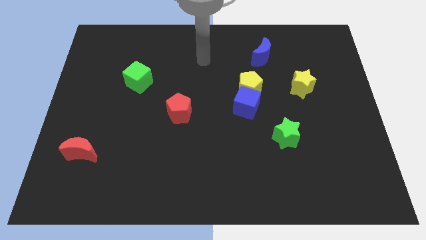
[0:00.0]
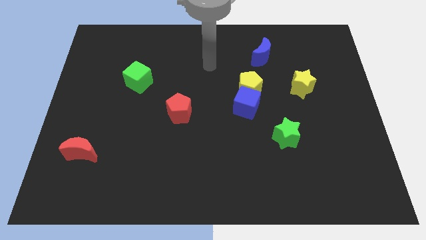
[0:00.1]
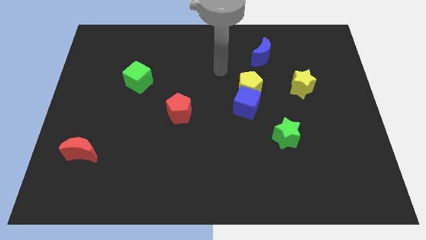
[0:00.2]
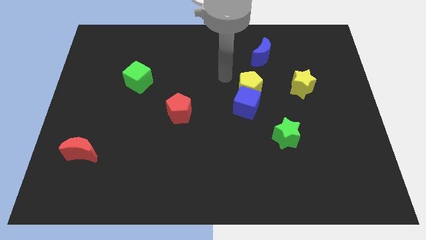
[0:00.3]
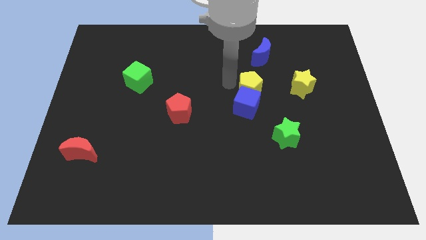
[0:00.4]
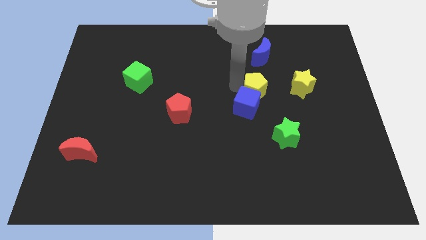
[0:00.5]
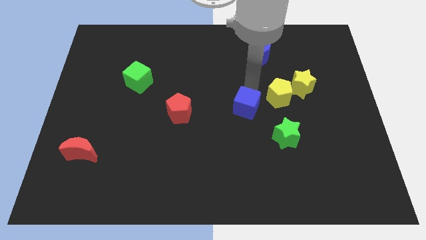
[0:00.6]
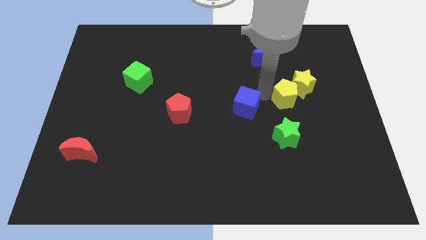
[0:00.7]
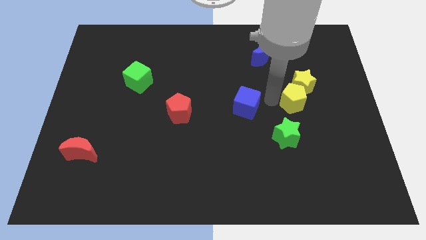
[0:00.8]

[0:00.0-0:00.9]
separate the blue cube from the yellow pentagon

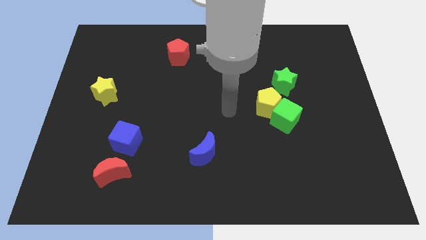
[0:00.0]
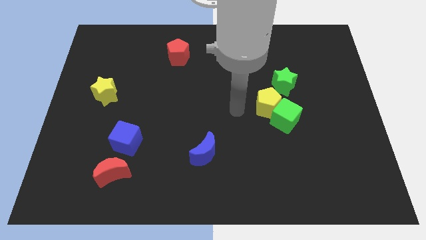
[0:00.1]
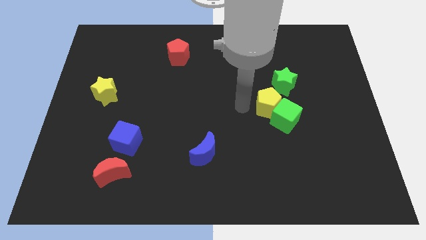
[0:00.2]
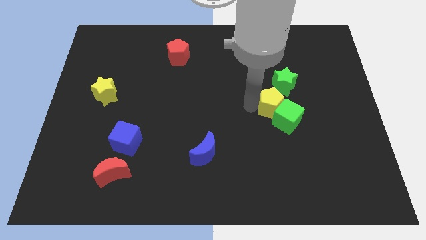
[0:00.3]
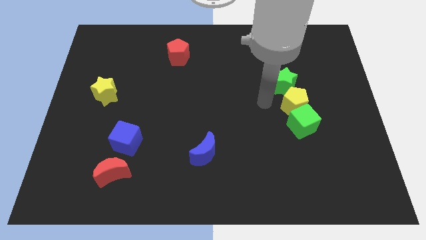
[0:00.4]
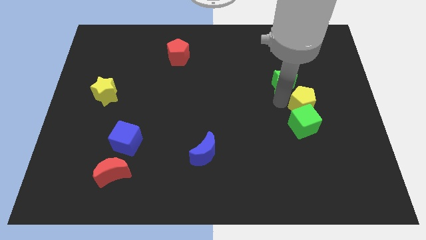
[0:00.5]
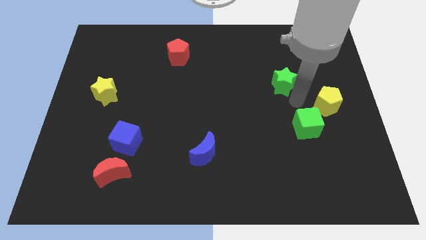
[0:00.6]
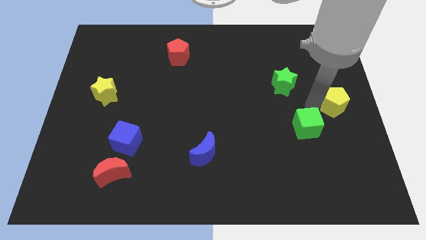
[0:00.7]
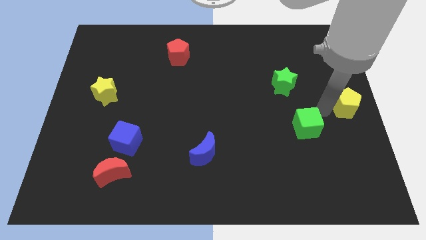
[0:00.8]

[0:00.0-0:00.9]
separate the green cube from the yellow pentagon

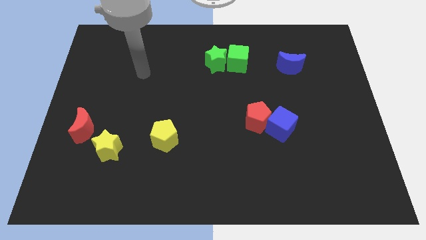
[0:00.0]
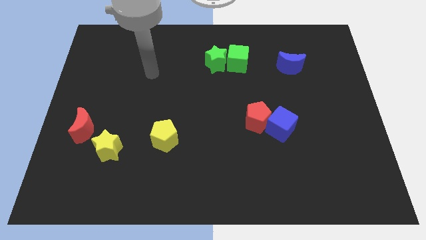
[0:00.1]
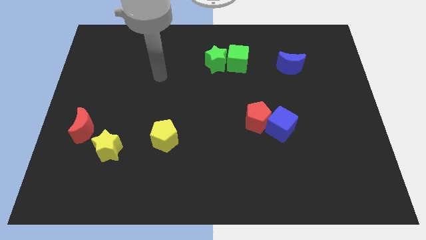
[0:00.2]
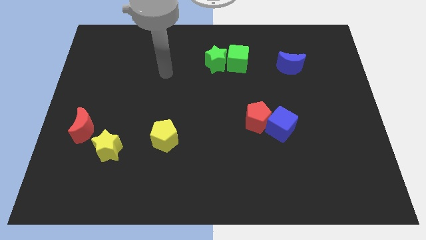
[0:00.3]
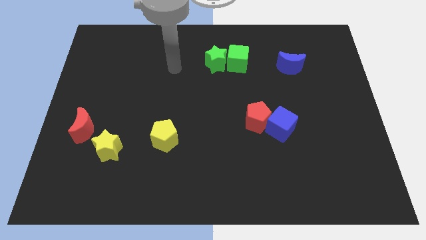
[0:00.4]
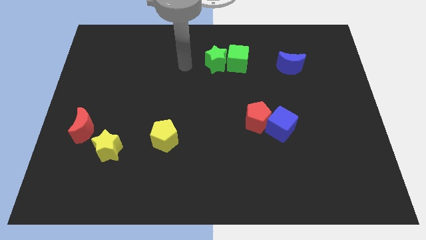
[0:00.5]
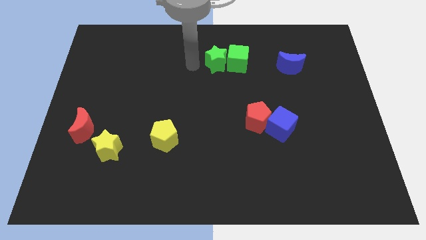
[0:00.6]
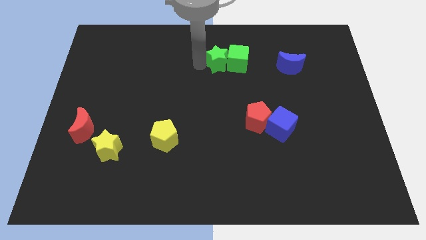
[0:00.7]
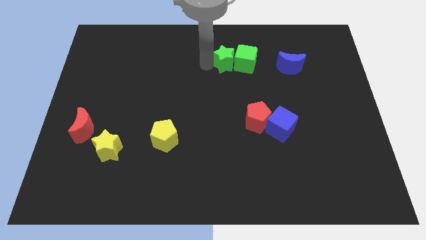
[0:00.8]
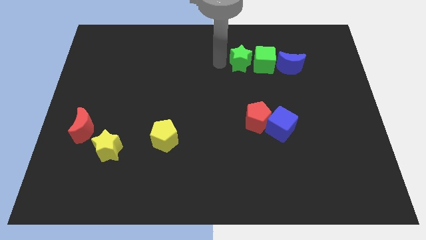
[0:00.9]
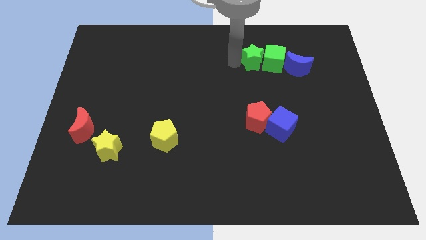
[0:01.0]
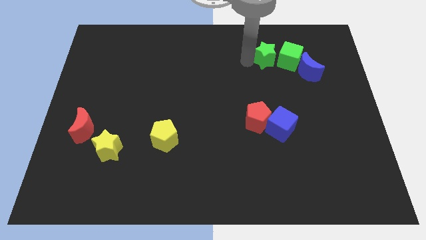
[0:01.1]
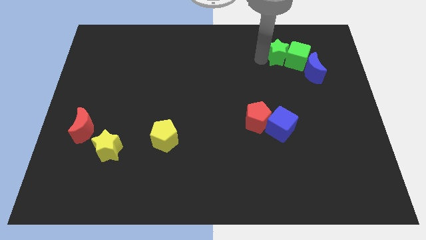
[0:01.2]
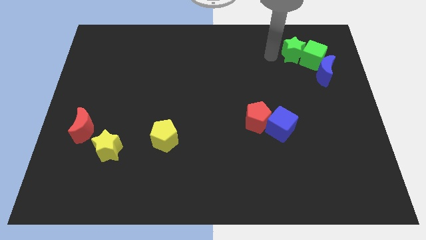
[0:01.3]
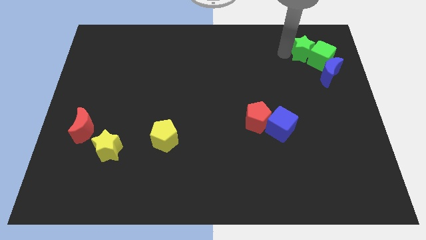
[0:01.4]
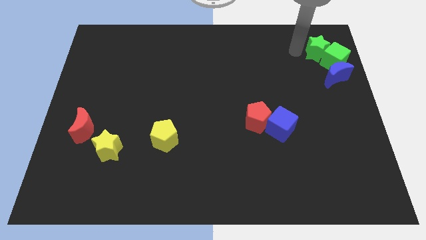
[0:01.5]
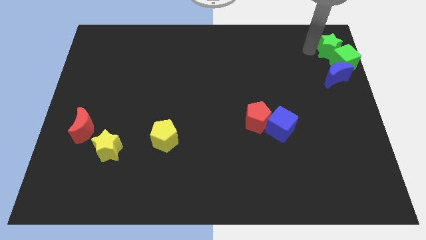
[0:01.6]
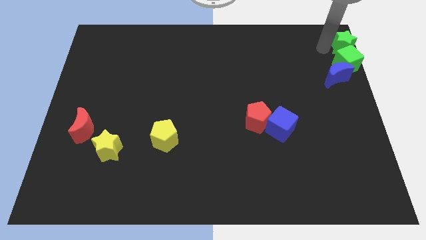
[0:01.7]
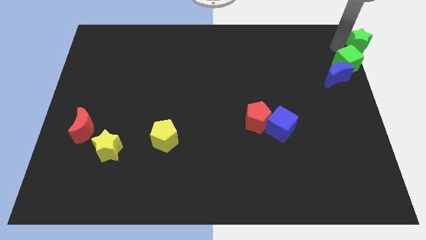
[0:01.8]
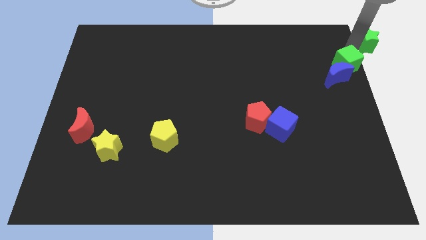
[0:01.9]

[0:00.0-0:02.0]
move the green cube away from the green star

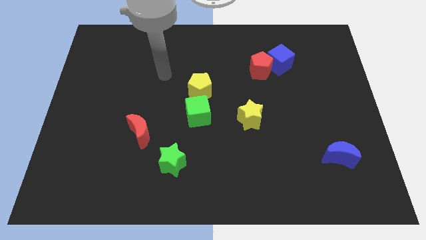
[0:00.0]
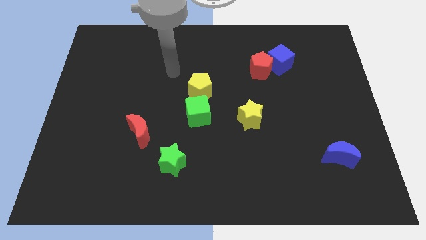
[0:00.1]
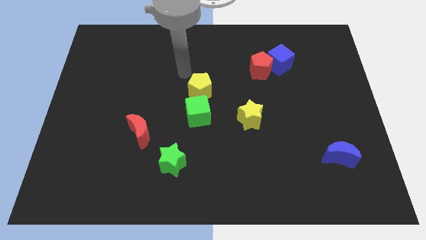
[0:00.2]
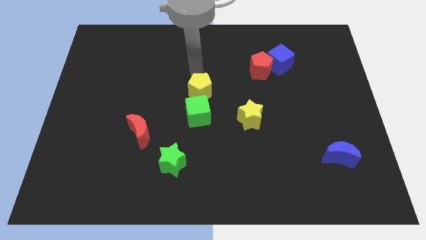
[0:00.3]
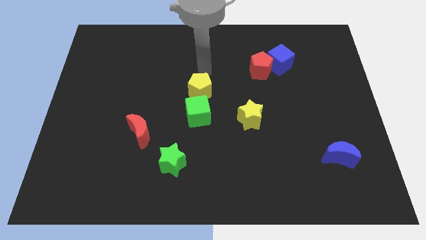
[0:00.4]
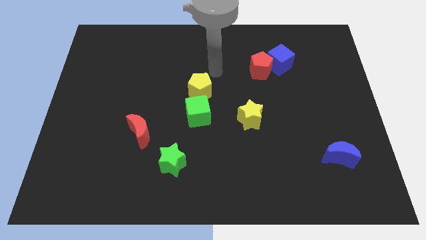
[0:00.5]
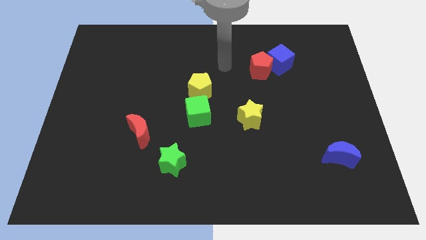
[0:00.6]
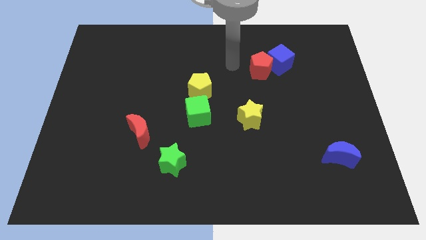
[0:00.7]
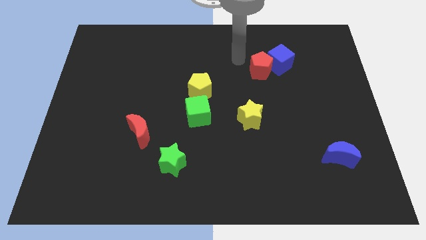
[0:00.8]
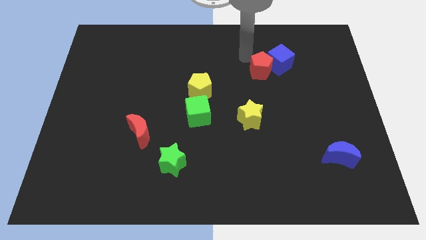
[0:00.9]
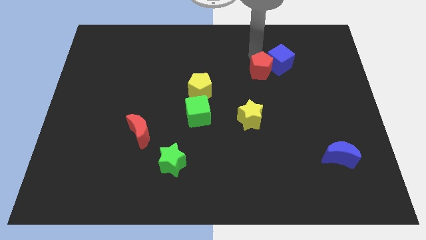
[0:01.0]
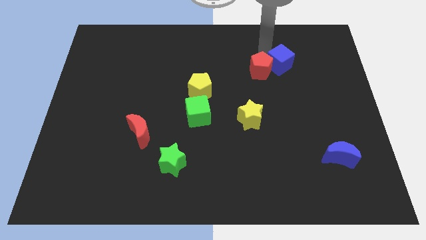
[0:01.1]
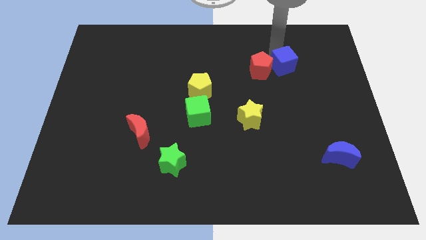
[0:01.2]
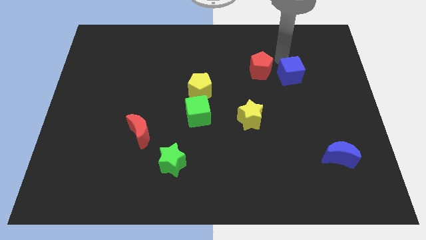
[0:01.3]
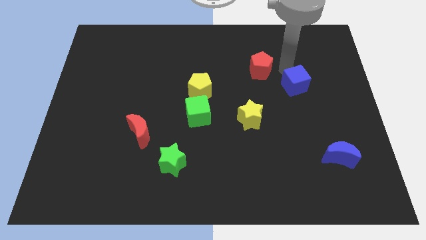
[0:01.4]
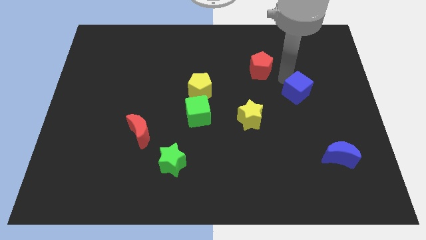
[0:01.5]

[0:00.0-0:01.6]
separate the red pentagon from the blue cube

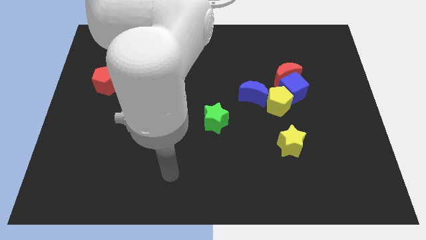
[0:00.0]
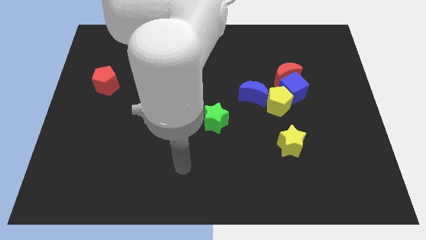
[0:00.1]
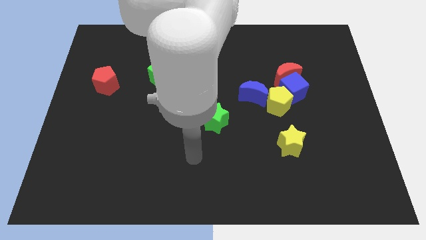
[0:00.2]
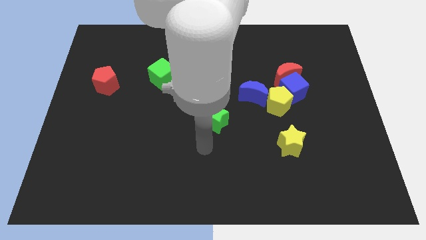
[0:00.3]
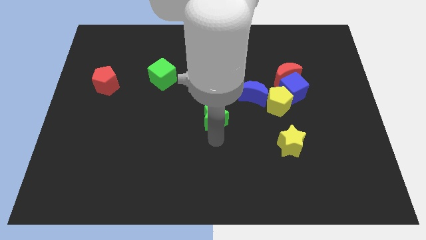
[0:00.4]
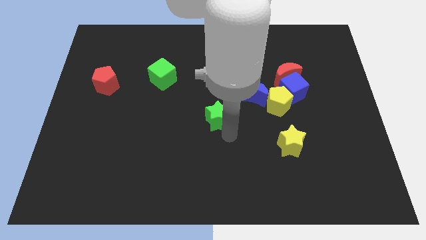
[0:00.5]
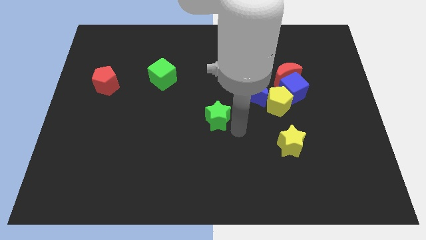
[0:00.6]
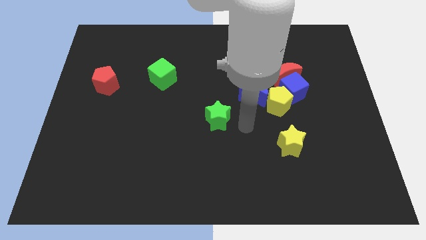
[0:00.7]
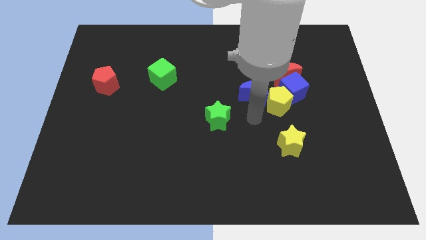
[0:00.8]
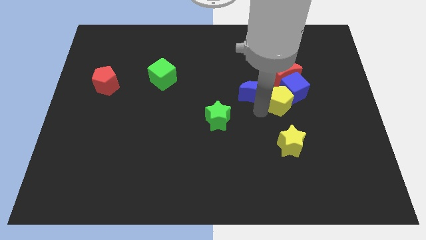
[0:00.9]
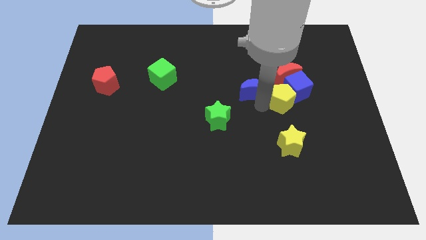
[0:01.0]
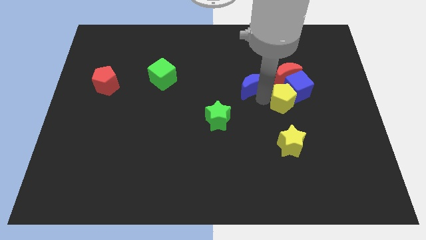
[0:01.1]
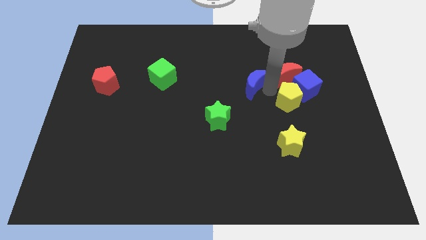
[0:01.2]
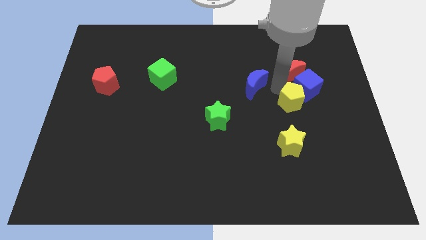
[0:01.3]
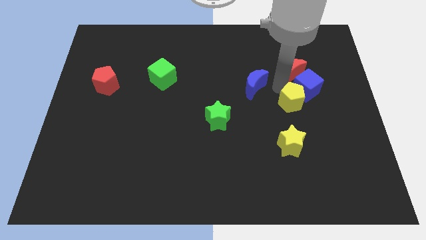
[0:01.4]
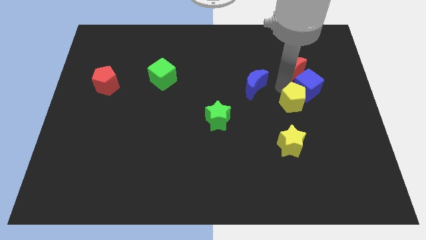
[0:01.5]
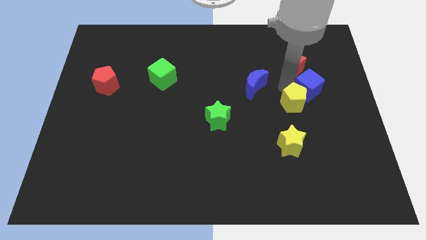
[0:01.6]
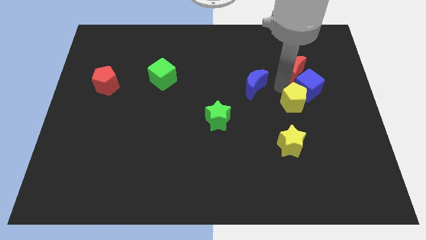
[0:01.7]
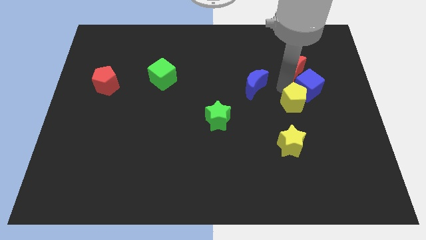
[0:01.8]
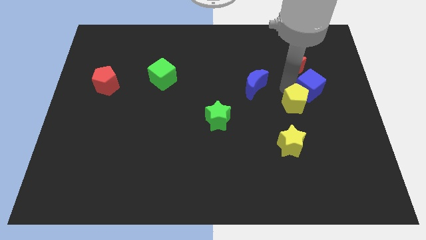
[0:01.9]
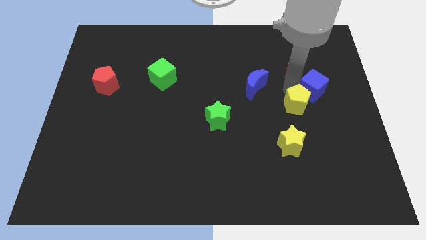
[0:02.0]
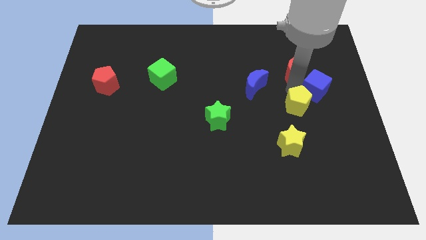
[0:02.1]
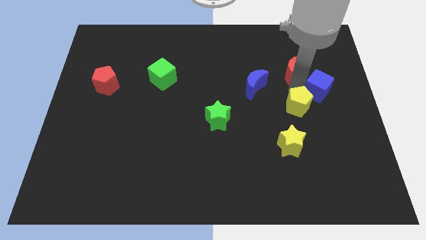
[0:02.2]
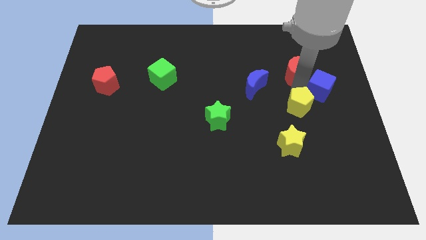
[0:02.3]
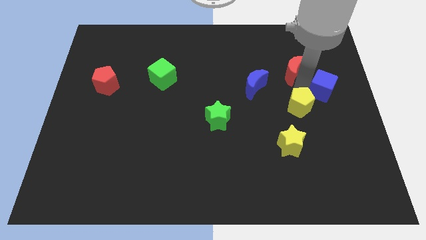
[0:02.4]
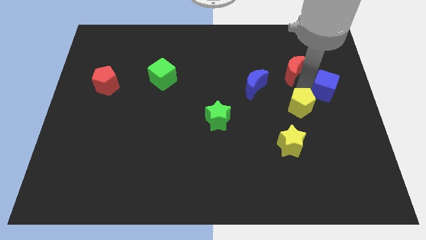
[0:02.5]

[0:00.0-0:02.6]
separate the blue cube from the group

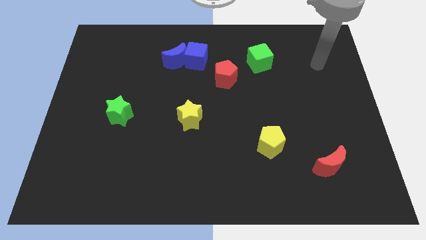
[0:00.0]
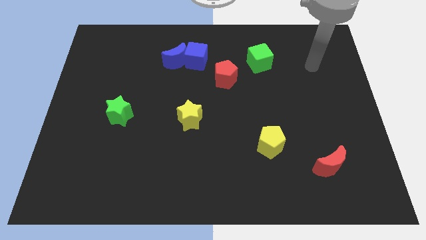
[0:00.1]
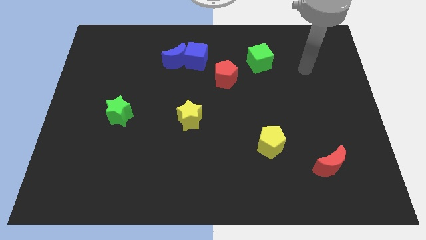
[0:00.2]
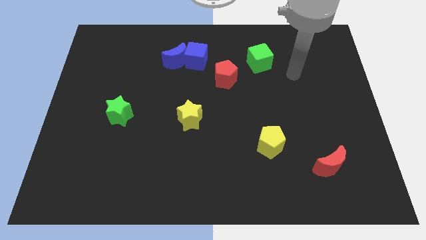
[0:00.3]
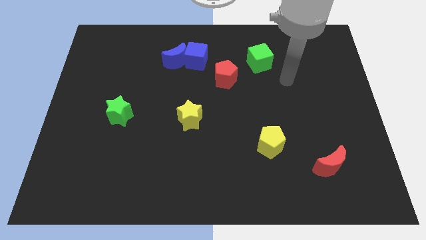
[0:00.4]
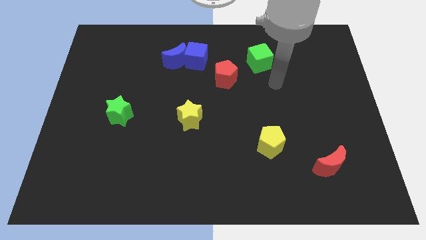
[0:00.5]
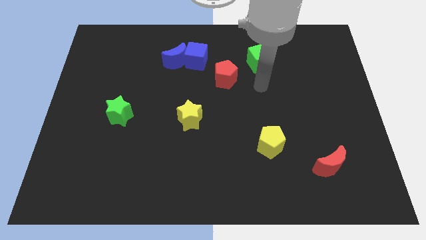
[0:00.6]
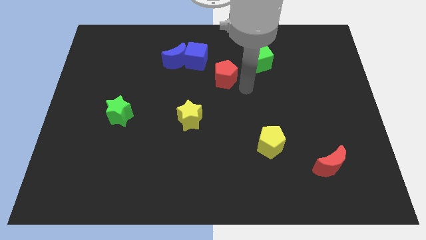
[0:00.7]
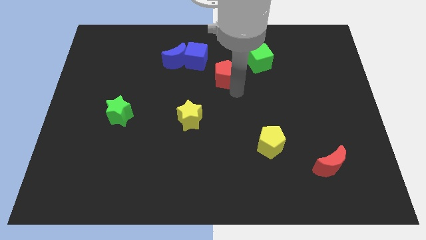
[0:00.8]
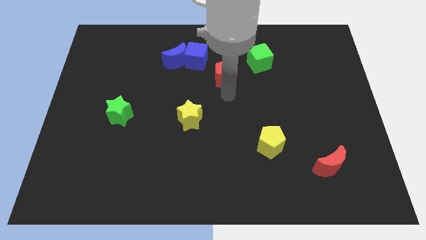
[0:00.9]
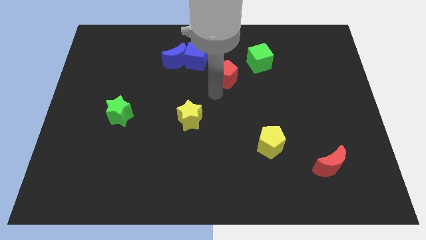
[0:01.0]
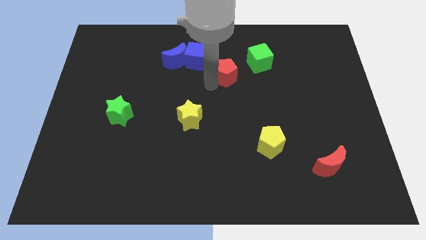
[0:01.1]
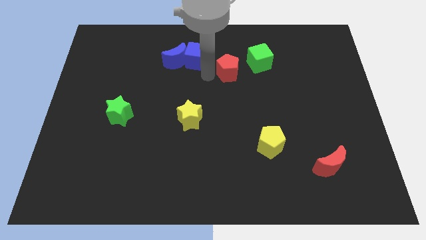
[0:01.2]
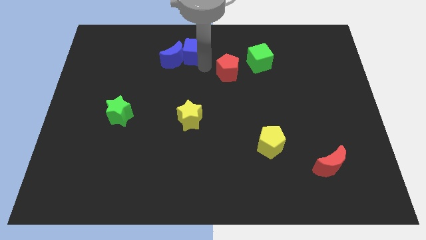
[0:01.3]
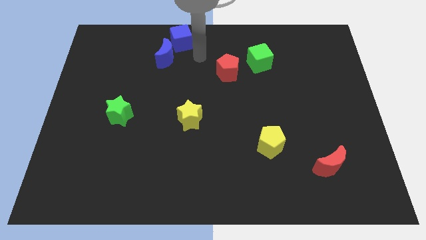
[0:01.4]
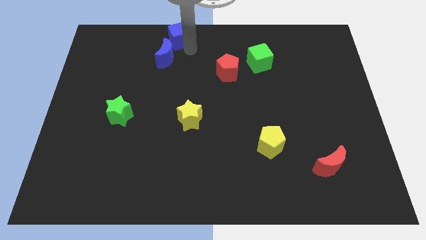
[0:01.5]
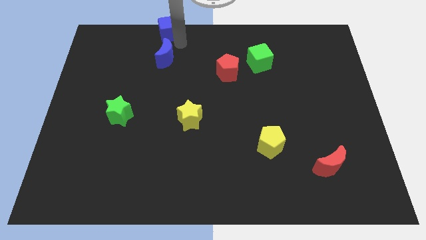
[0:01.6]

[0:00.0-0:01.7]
move the blue moon away from the blue cube
